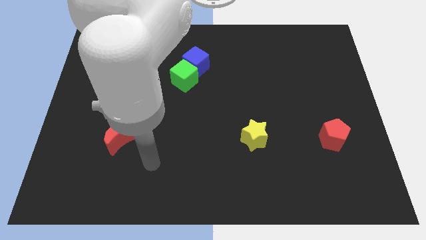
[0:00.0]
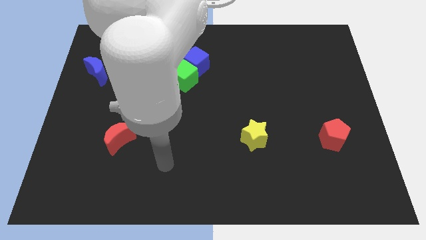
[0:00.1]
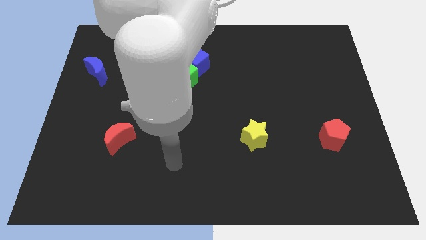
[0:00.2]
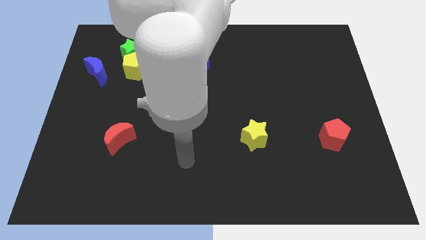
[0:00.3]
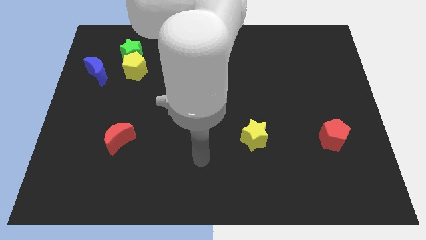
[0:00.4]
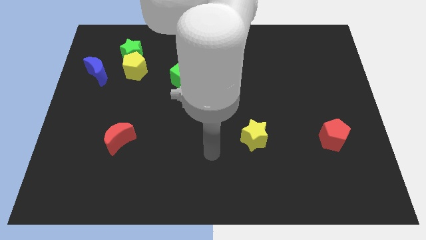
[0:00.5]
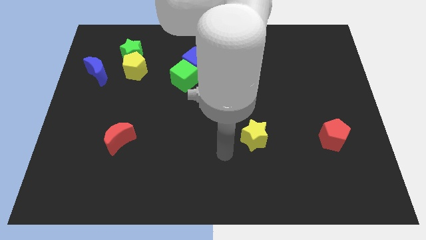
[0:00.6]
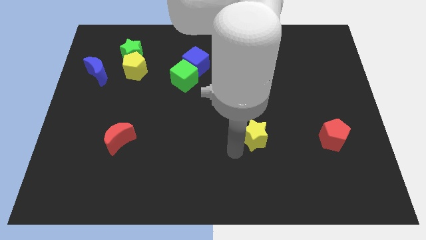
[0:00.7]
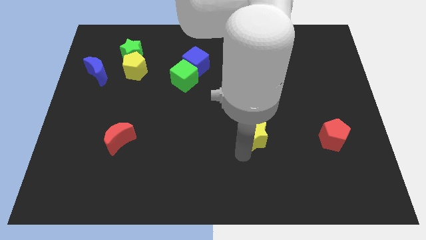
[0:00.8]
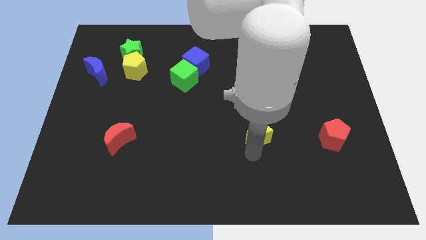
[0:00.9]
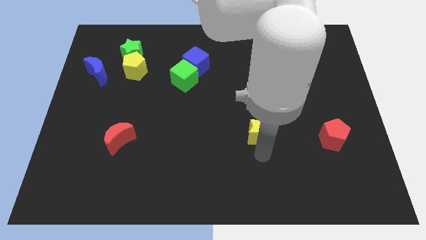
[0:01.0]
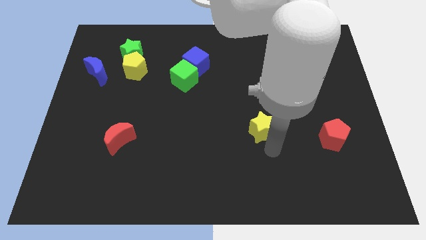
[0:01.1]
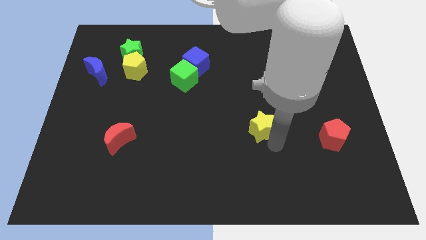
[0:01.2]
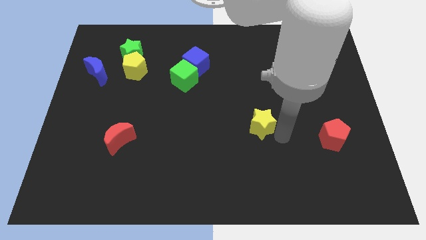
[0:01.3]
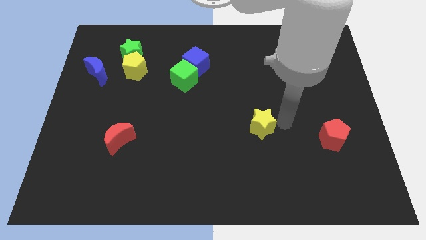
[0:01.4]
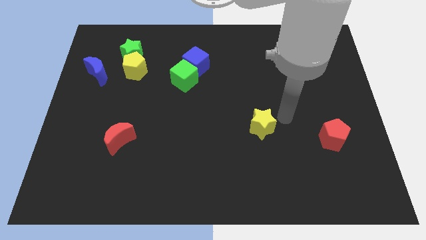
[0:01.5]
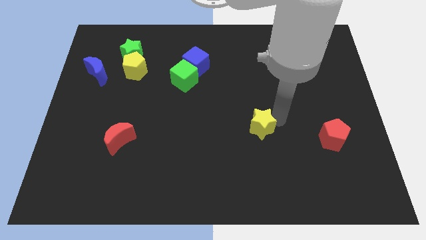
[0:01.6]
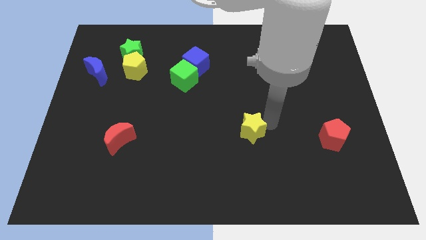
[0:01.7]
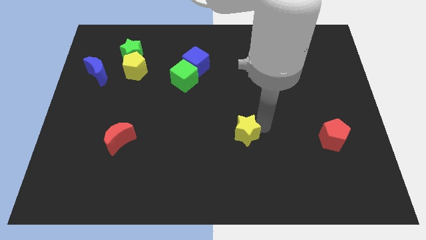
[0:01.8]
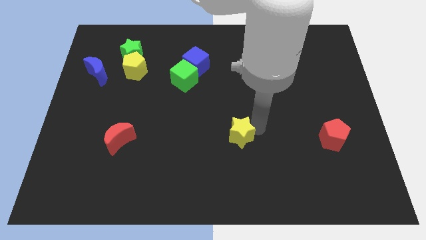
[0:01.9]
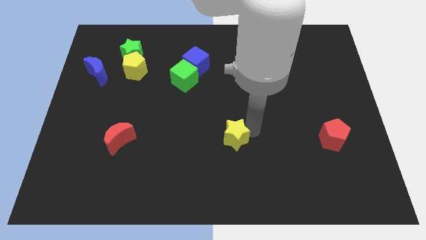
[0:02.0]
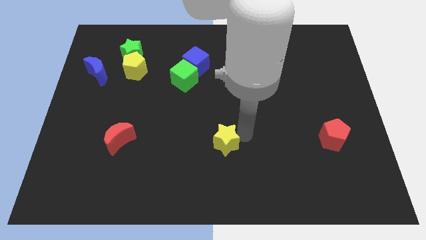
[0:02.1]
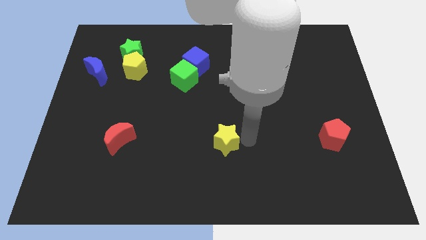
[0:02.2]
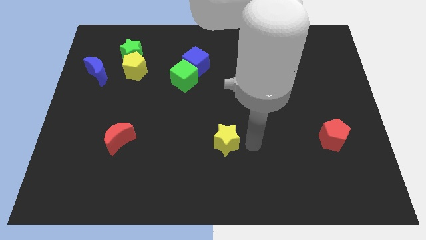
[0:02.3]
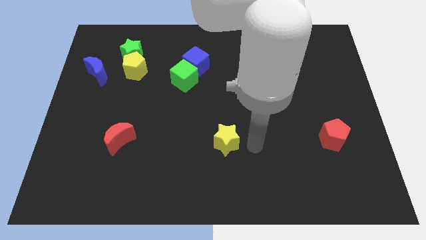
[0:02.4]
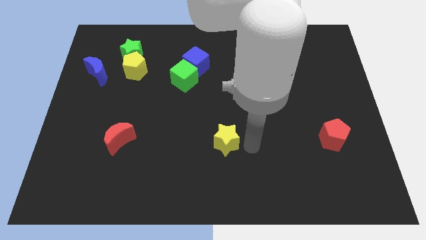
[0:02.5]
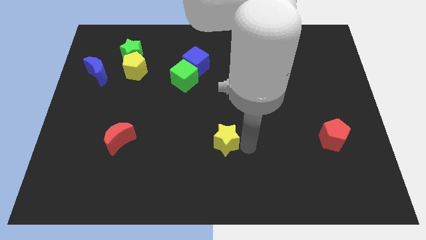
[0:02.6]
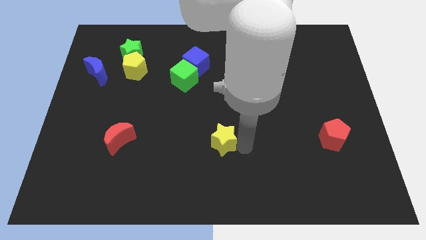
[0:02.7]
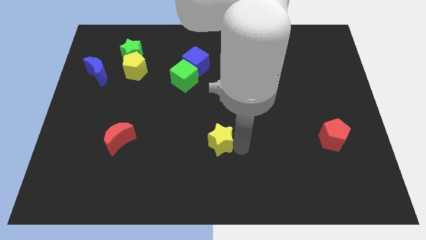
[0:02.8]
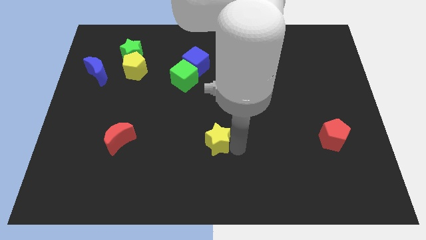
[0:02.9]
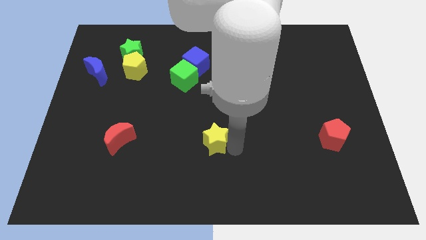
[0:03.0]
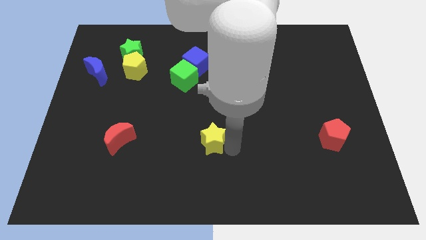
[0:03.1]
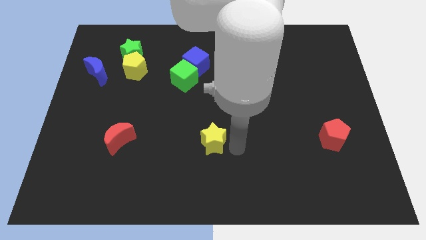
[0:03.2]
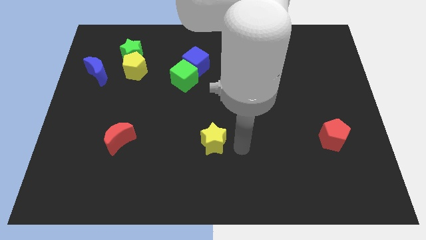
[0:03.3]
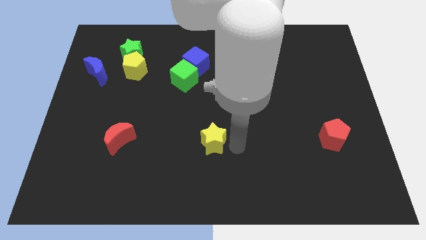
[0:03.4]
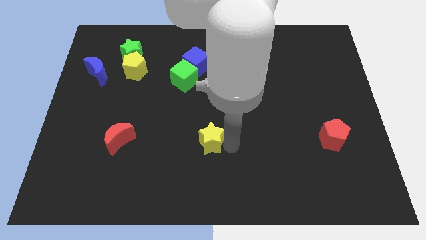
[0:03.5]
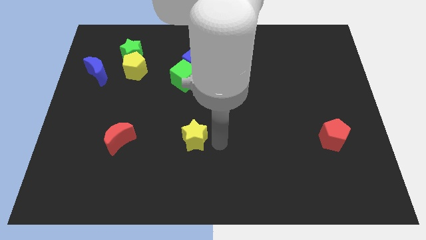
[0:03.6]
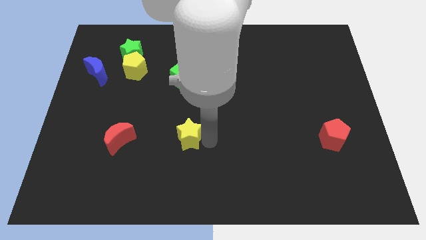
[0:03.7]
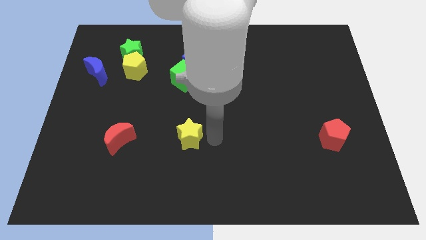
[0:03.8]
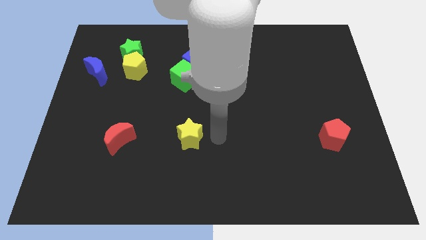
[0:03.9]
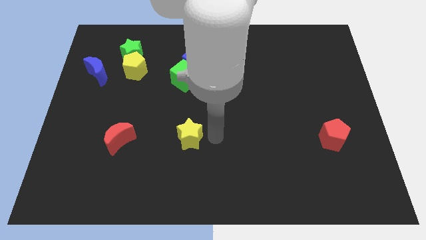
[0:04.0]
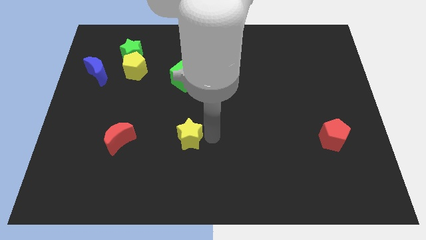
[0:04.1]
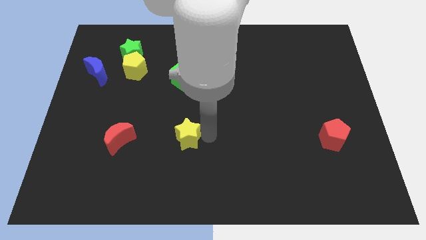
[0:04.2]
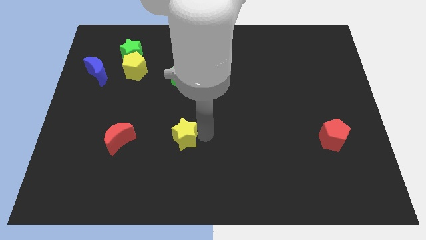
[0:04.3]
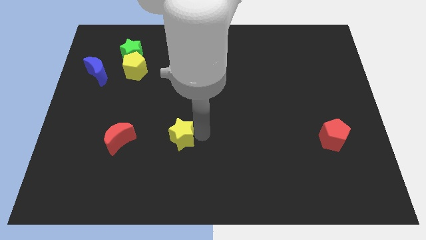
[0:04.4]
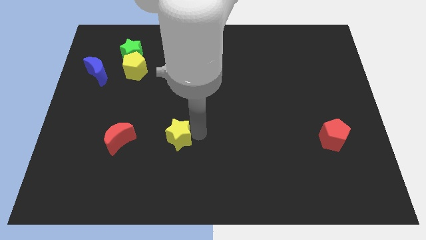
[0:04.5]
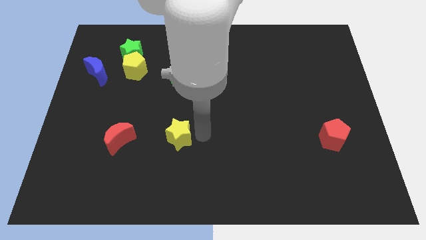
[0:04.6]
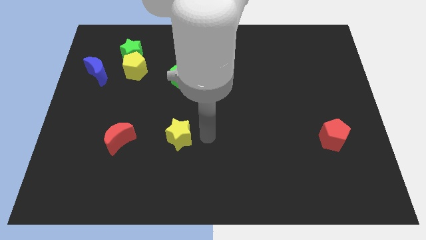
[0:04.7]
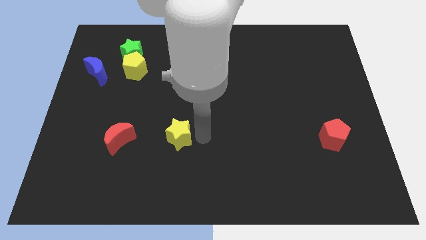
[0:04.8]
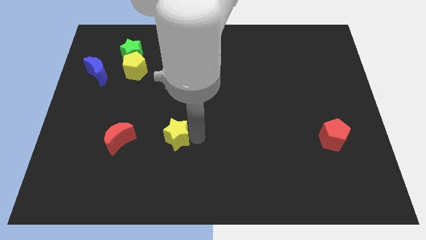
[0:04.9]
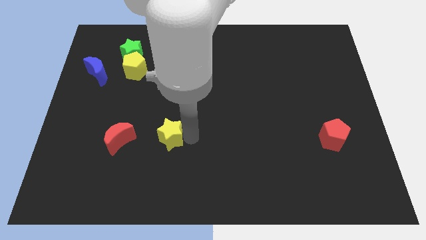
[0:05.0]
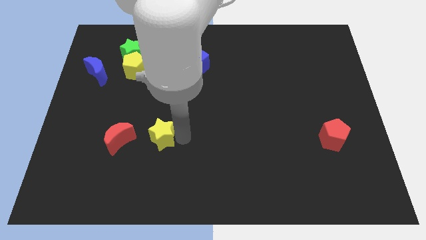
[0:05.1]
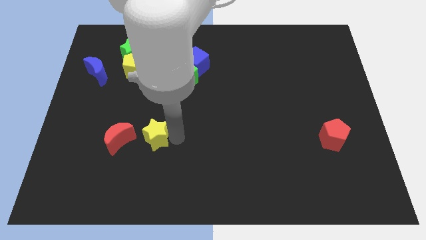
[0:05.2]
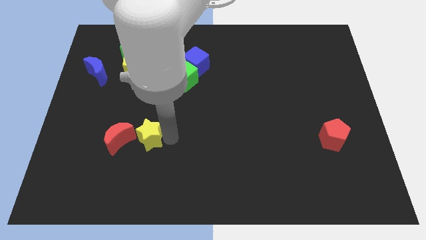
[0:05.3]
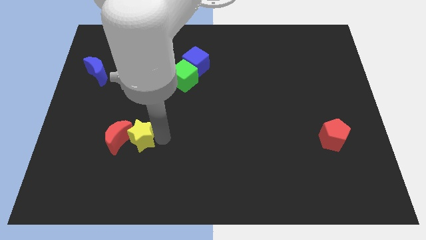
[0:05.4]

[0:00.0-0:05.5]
slide the yellow star towards the red moon

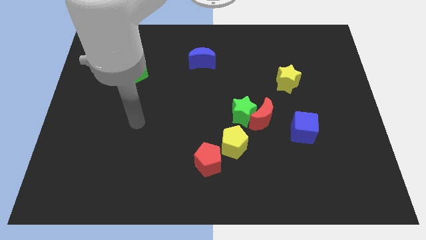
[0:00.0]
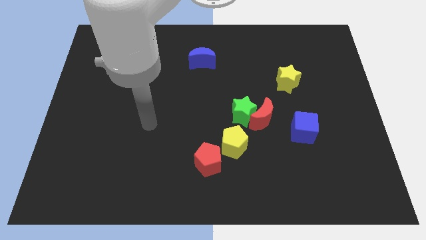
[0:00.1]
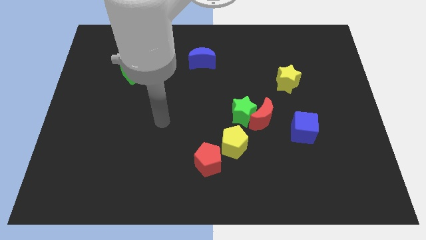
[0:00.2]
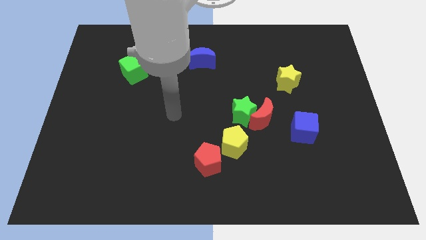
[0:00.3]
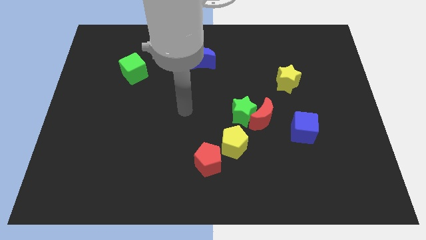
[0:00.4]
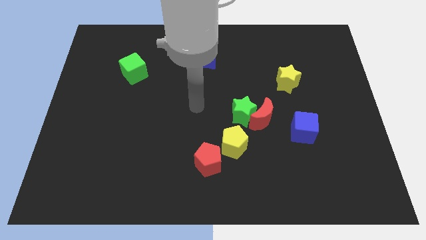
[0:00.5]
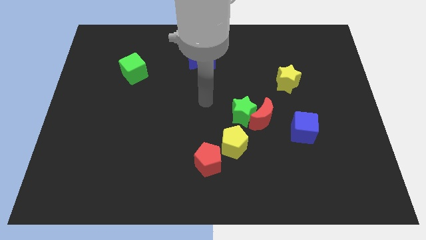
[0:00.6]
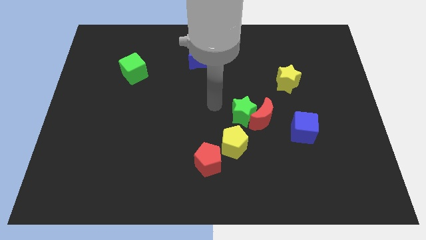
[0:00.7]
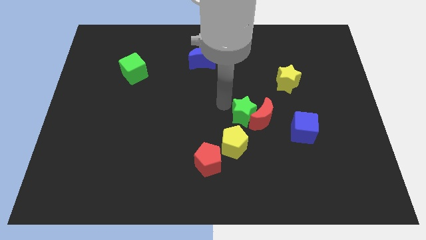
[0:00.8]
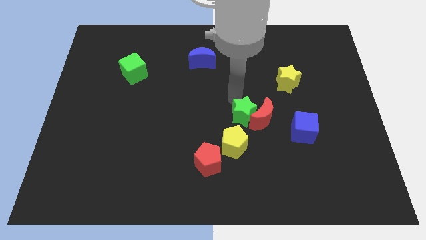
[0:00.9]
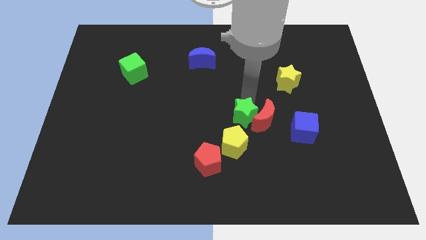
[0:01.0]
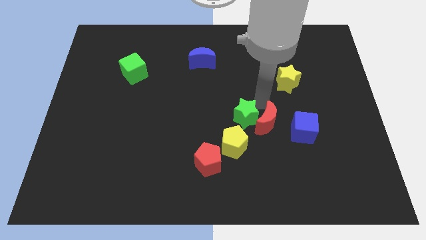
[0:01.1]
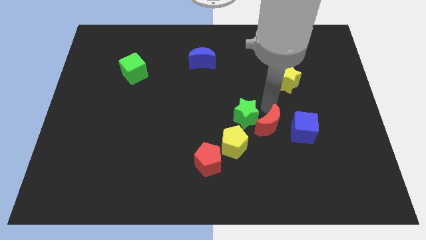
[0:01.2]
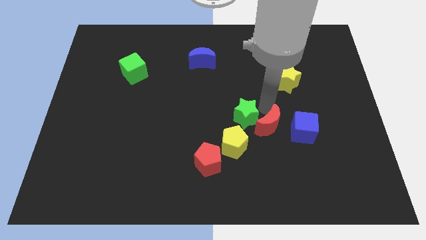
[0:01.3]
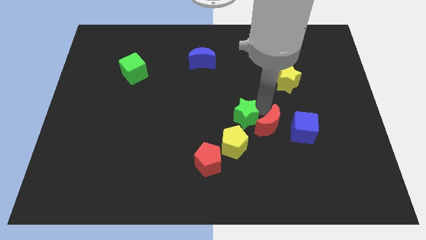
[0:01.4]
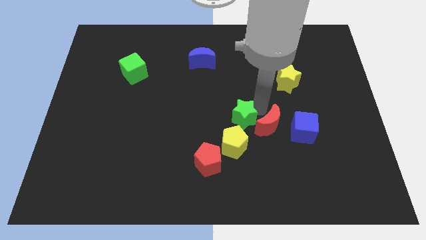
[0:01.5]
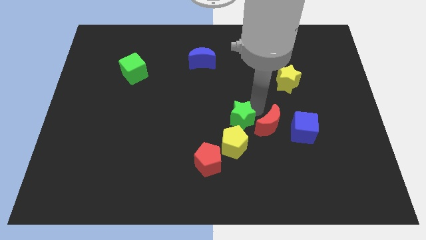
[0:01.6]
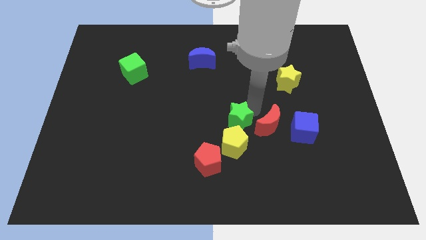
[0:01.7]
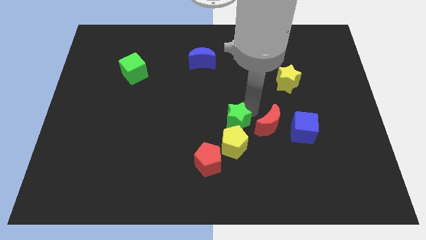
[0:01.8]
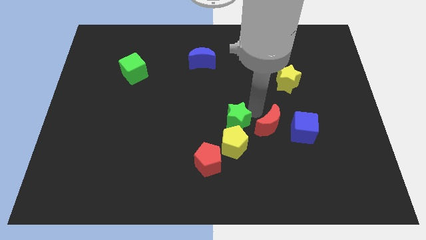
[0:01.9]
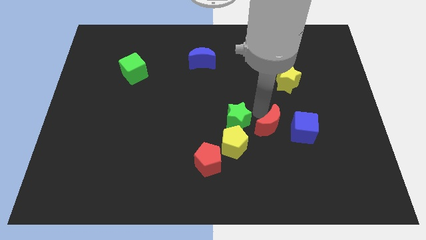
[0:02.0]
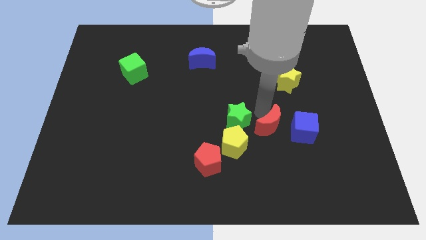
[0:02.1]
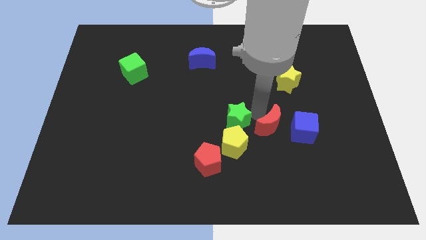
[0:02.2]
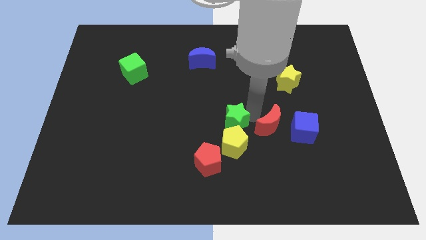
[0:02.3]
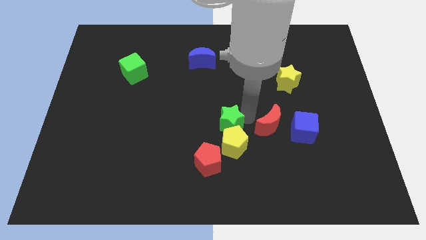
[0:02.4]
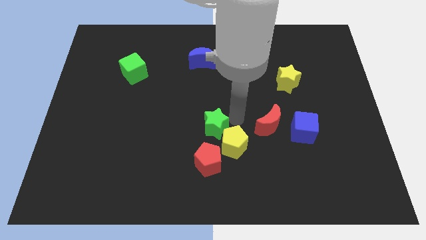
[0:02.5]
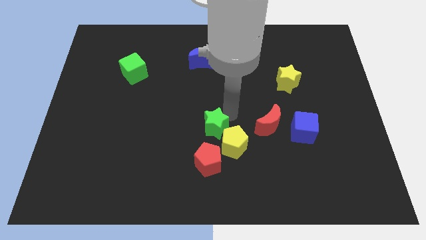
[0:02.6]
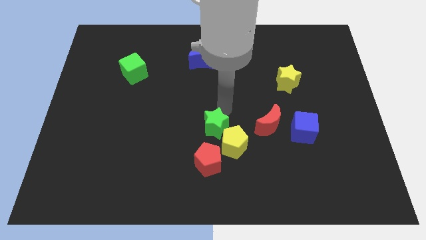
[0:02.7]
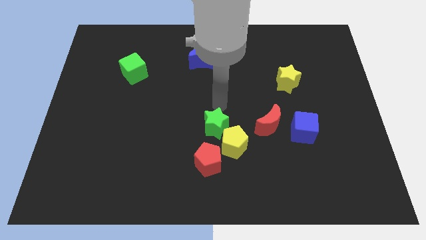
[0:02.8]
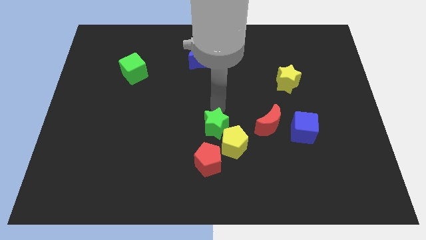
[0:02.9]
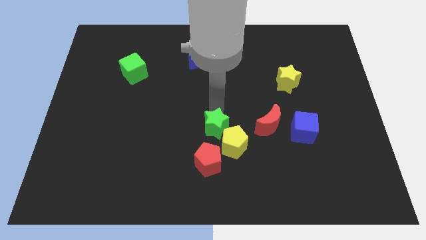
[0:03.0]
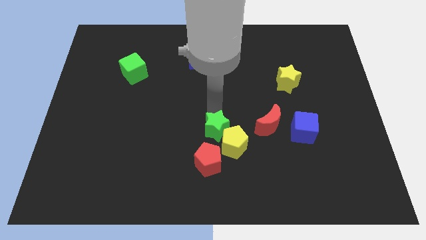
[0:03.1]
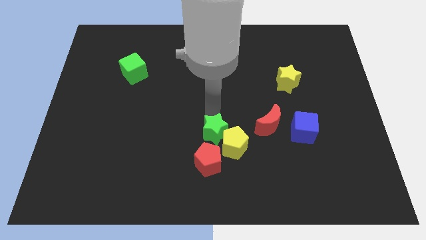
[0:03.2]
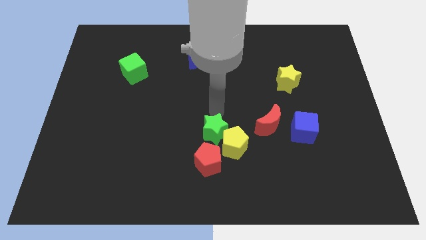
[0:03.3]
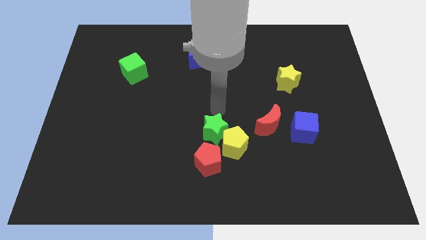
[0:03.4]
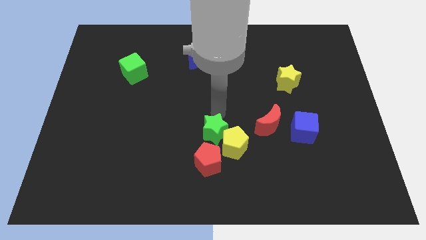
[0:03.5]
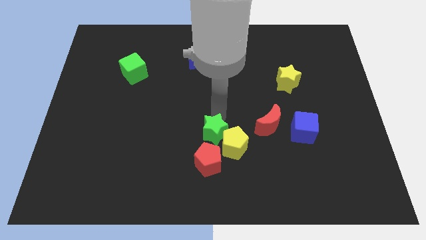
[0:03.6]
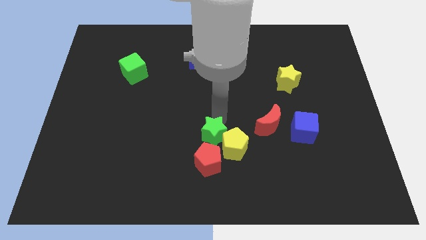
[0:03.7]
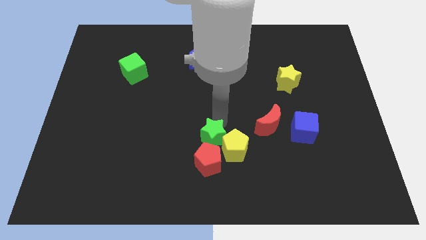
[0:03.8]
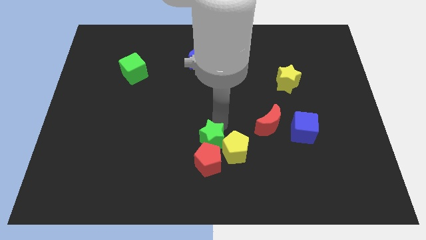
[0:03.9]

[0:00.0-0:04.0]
push the green star to the red pentagon
